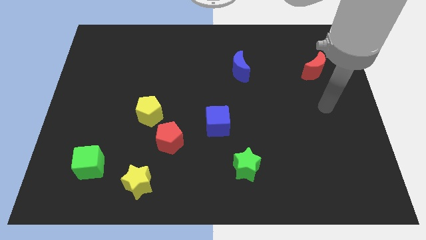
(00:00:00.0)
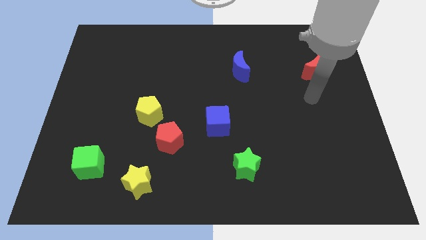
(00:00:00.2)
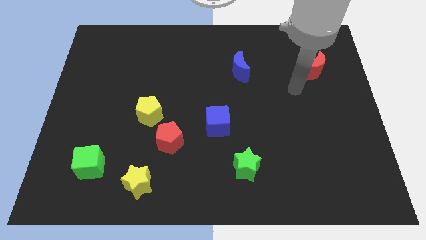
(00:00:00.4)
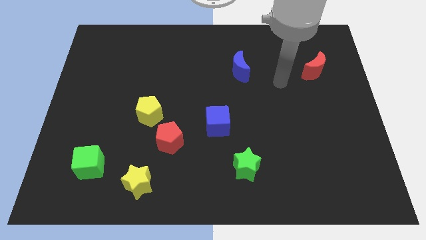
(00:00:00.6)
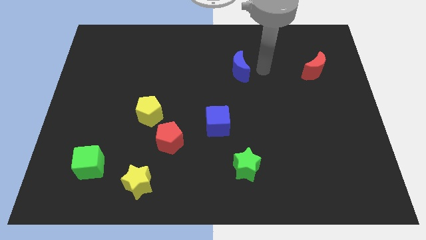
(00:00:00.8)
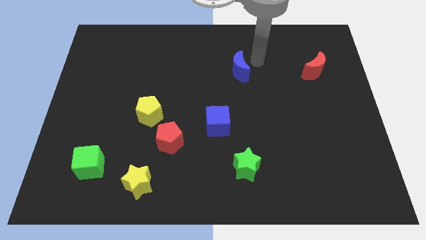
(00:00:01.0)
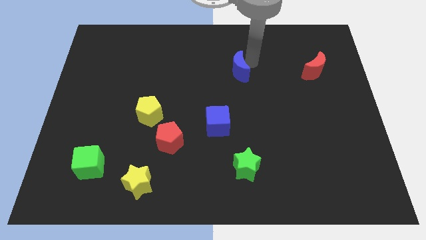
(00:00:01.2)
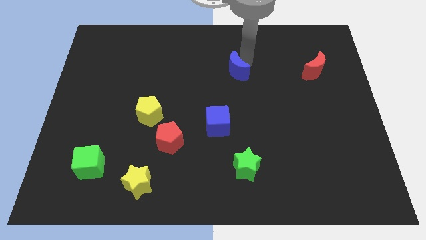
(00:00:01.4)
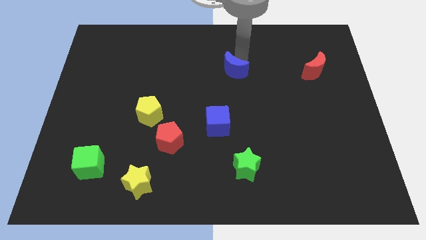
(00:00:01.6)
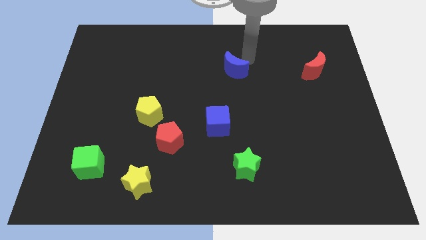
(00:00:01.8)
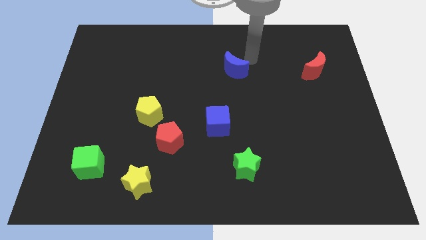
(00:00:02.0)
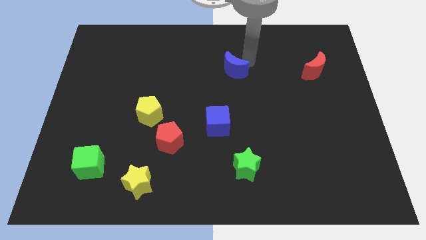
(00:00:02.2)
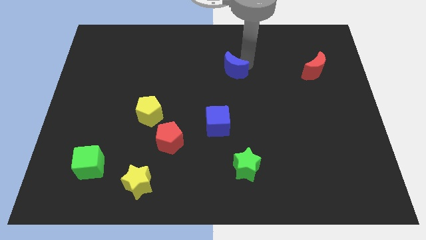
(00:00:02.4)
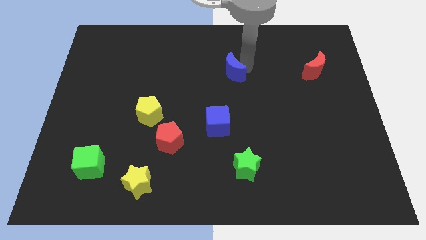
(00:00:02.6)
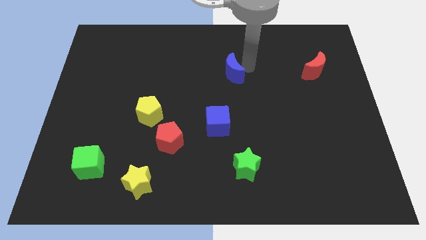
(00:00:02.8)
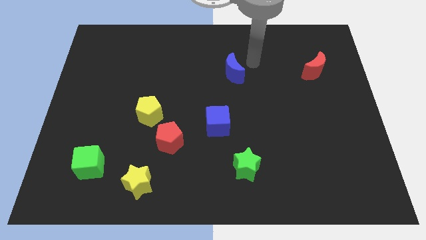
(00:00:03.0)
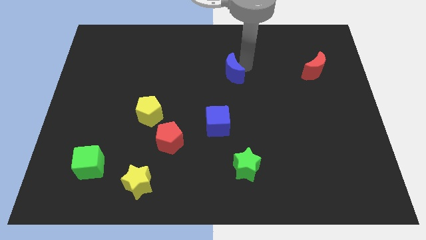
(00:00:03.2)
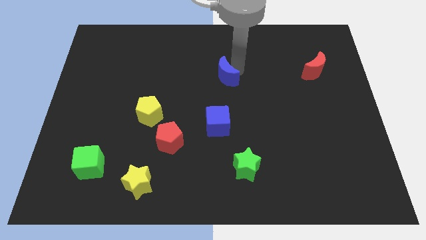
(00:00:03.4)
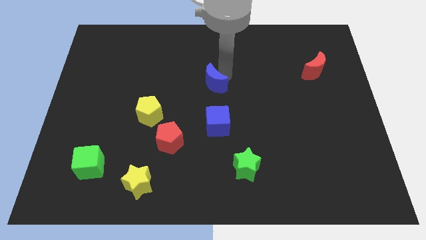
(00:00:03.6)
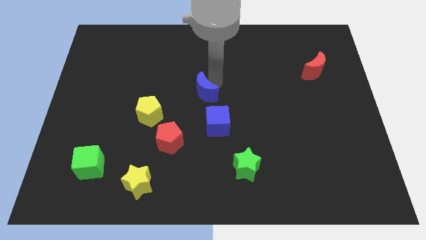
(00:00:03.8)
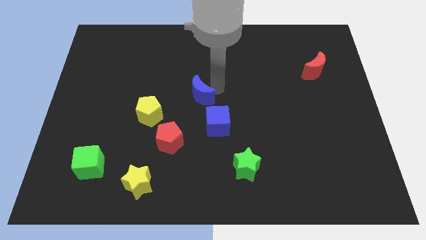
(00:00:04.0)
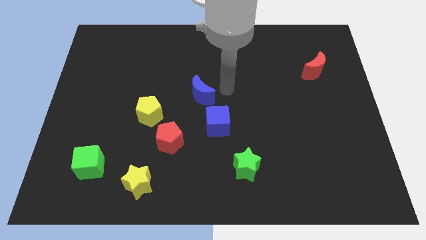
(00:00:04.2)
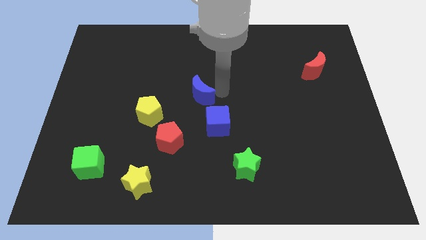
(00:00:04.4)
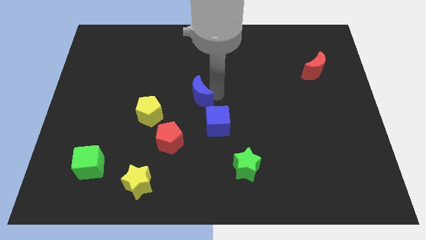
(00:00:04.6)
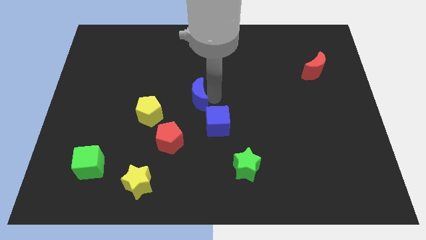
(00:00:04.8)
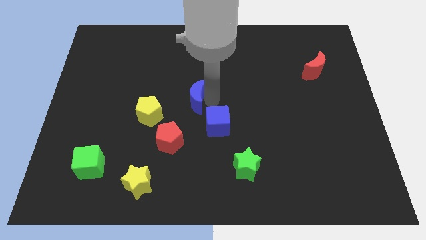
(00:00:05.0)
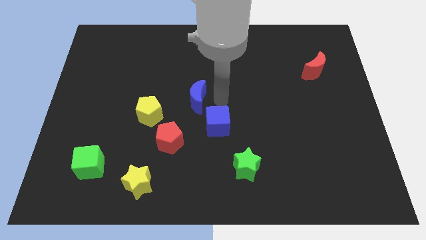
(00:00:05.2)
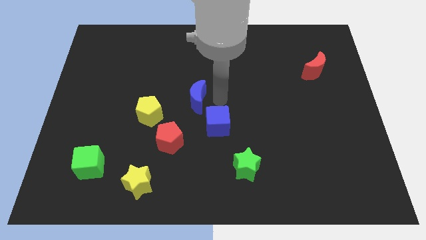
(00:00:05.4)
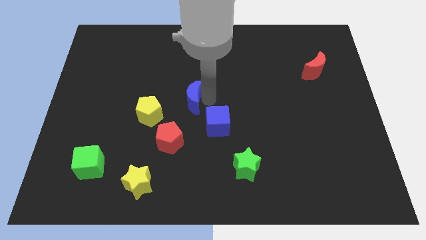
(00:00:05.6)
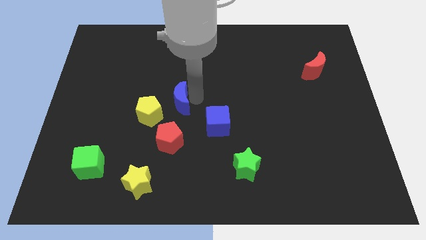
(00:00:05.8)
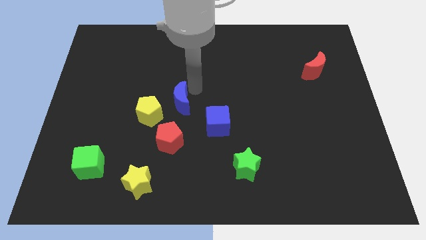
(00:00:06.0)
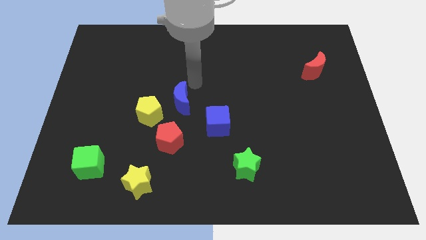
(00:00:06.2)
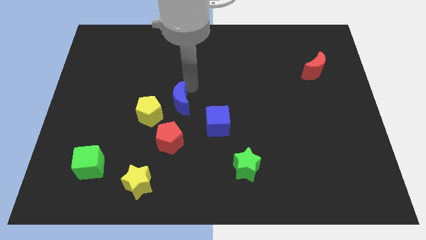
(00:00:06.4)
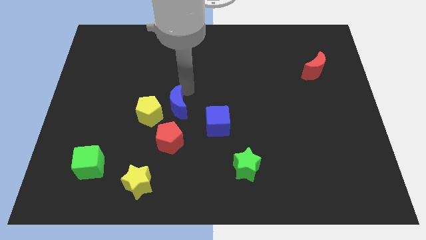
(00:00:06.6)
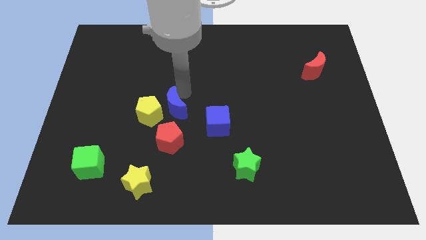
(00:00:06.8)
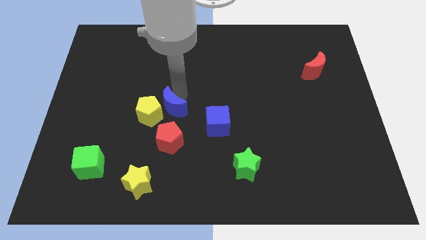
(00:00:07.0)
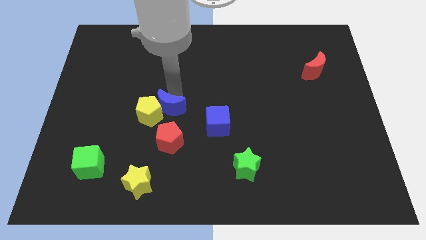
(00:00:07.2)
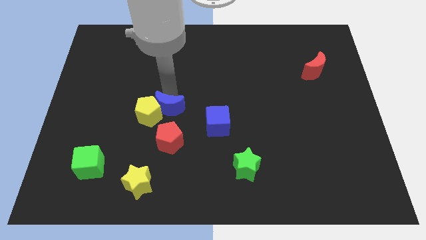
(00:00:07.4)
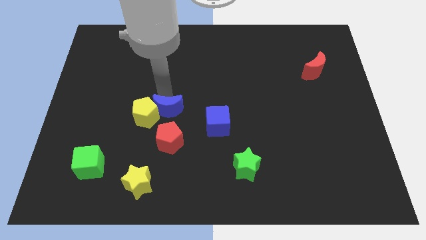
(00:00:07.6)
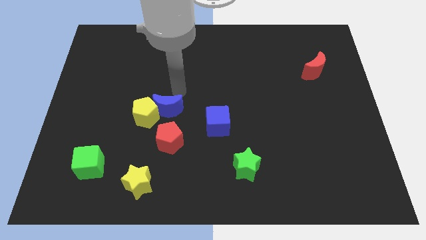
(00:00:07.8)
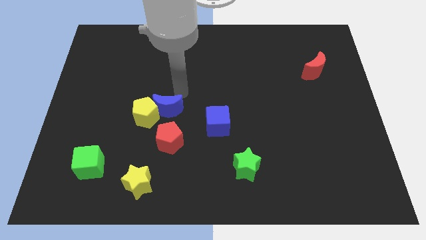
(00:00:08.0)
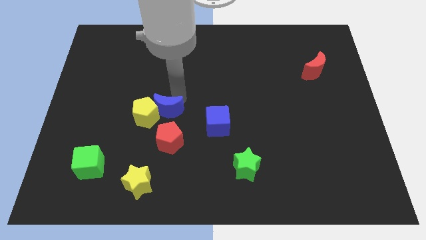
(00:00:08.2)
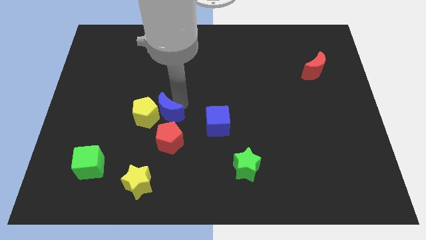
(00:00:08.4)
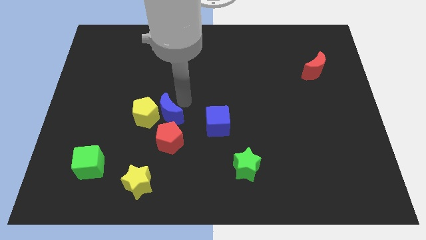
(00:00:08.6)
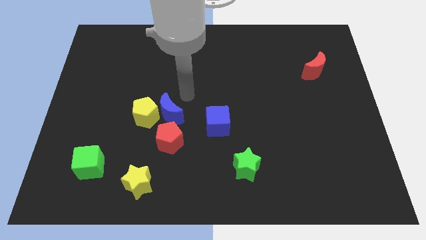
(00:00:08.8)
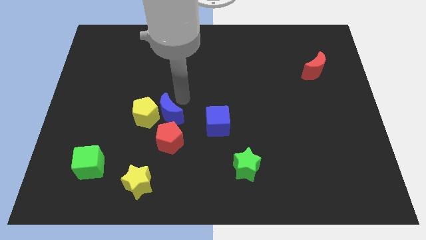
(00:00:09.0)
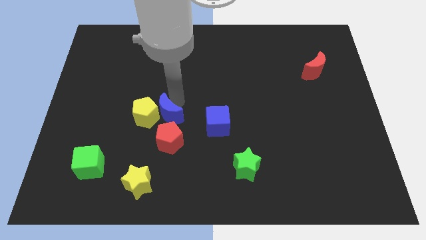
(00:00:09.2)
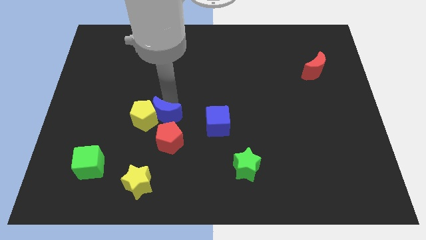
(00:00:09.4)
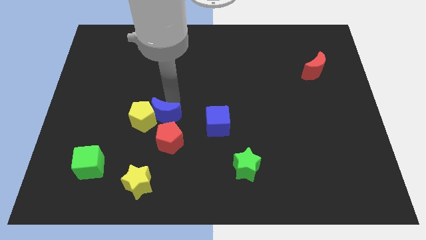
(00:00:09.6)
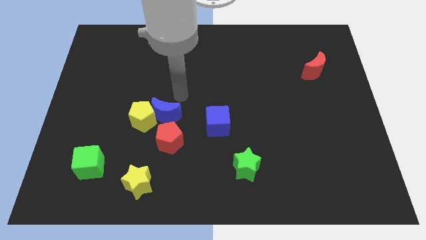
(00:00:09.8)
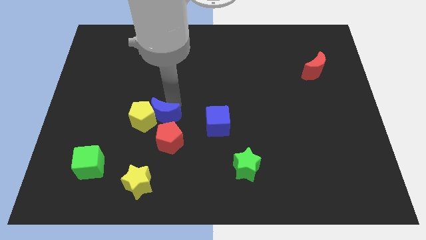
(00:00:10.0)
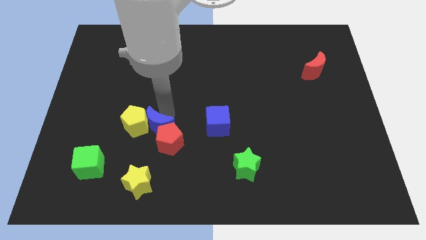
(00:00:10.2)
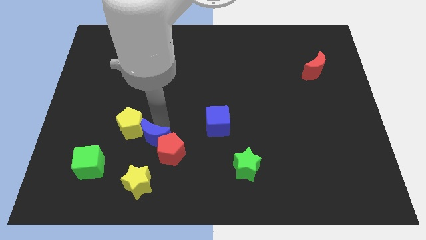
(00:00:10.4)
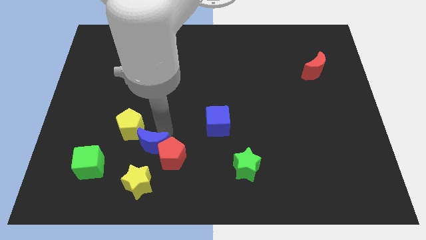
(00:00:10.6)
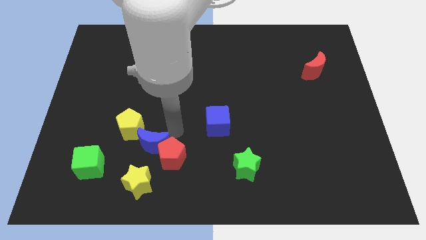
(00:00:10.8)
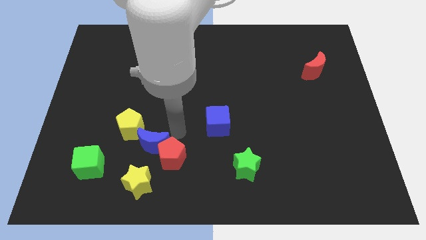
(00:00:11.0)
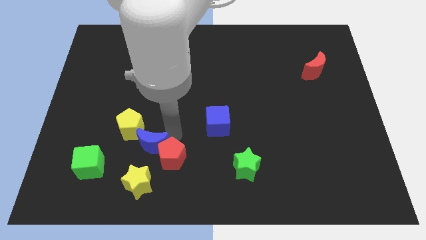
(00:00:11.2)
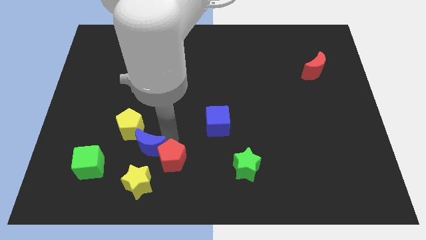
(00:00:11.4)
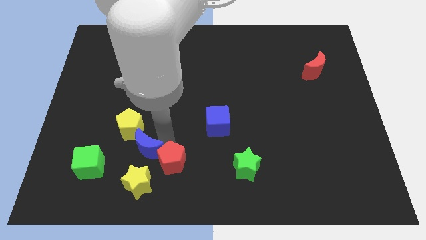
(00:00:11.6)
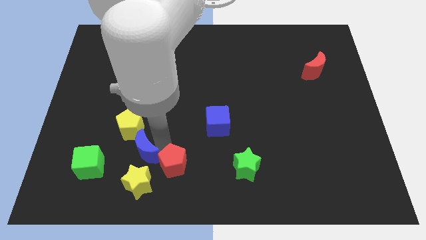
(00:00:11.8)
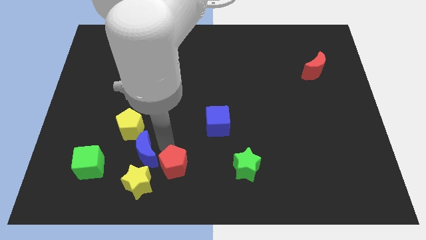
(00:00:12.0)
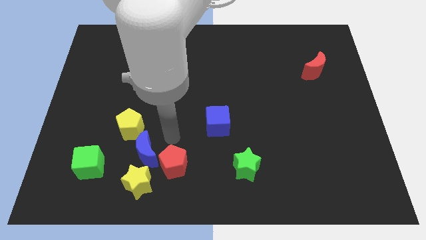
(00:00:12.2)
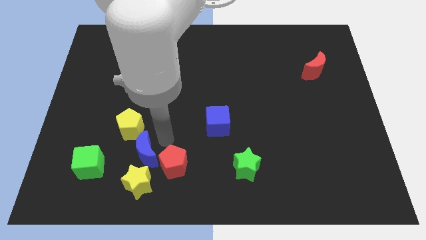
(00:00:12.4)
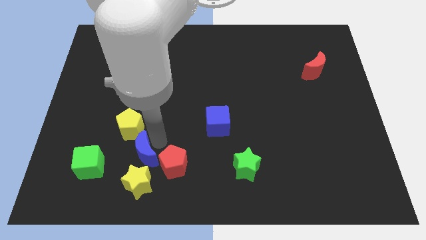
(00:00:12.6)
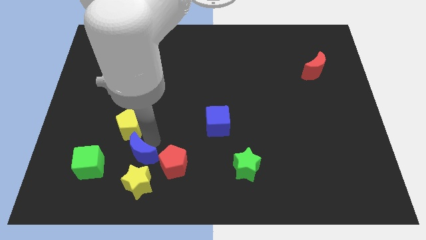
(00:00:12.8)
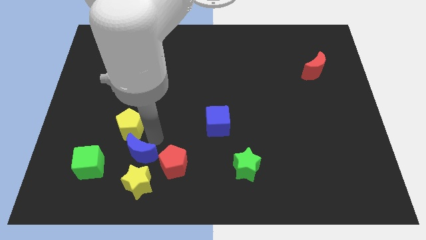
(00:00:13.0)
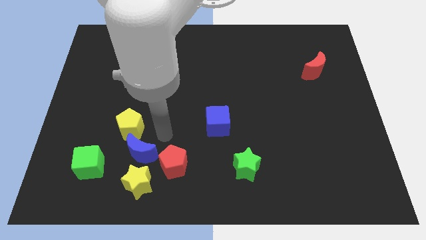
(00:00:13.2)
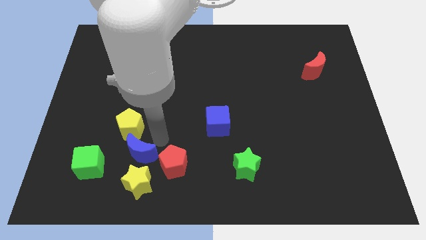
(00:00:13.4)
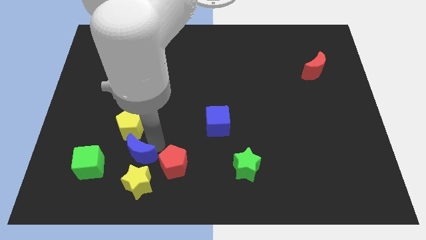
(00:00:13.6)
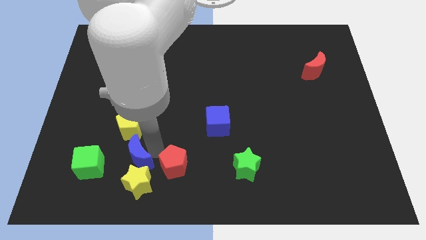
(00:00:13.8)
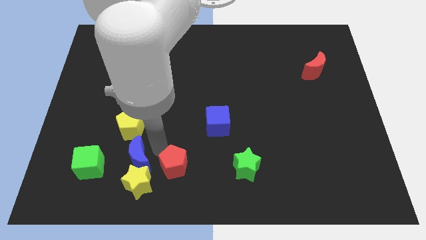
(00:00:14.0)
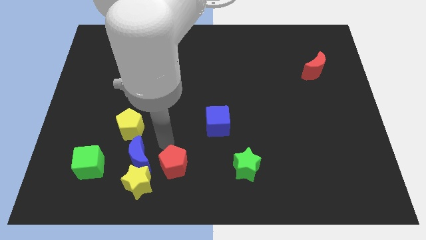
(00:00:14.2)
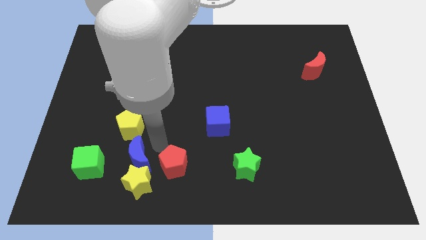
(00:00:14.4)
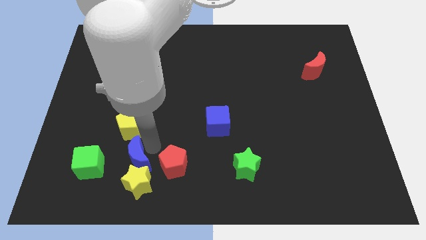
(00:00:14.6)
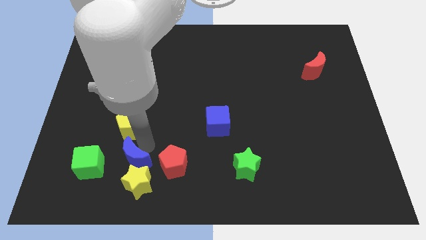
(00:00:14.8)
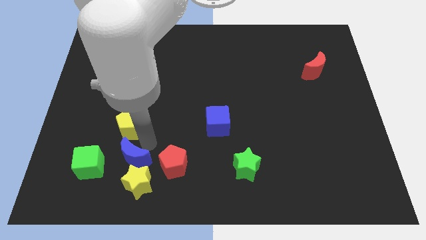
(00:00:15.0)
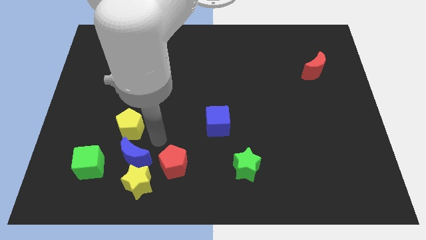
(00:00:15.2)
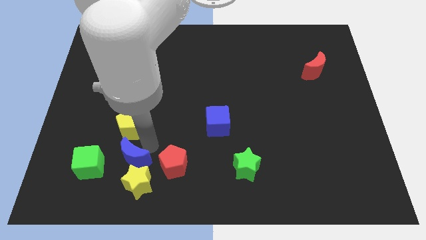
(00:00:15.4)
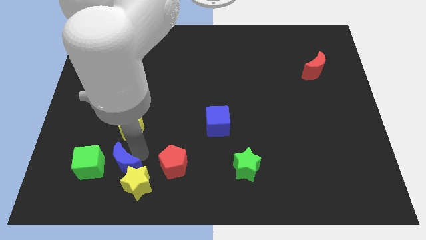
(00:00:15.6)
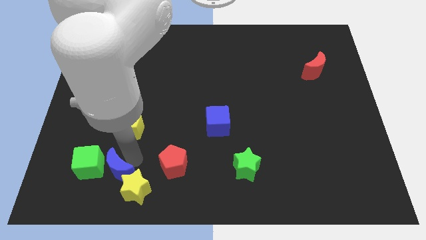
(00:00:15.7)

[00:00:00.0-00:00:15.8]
slide the blue moon to the left side of the yellow star
